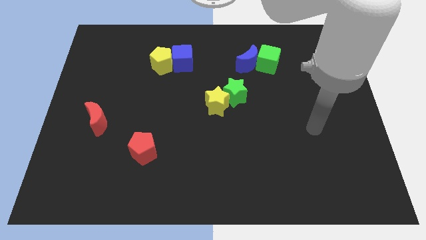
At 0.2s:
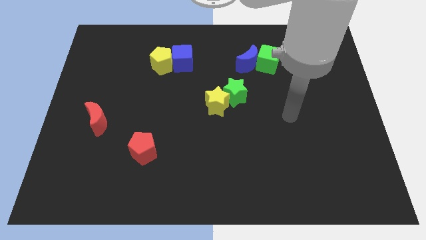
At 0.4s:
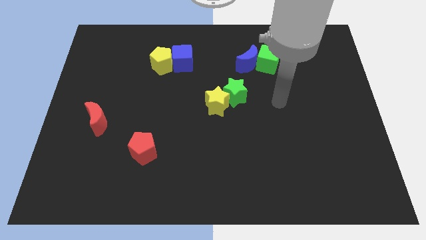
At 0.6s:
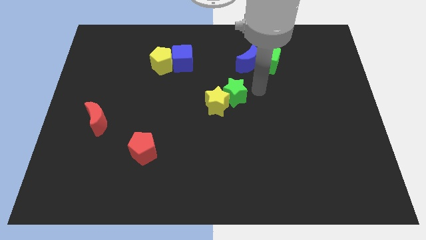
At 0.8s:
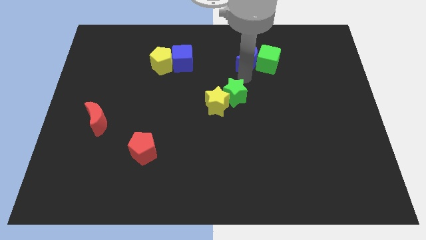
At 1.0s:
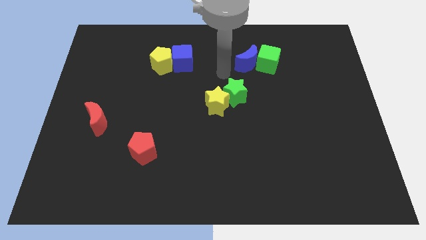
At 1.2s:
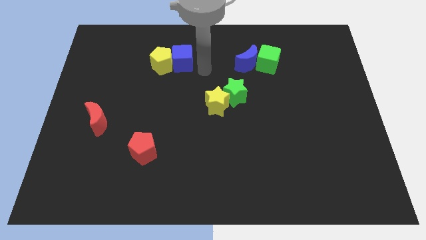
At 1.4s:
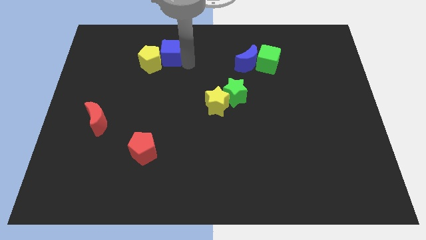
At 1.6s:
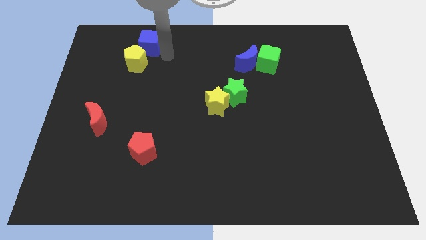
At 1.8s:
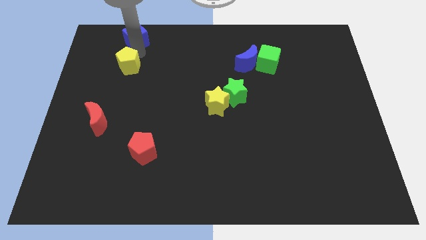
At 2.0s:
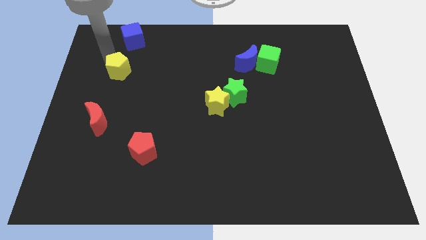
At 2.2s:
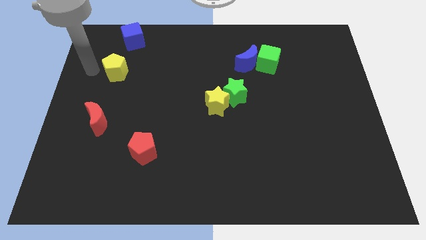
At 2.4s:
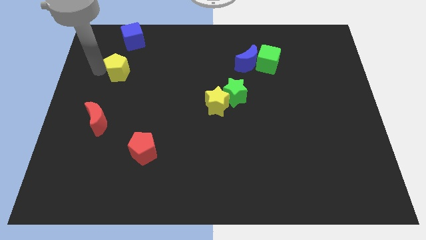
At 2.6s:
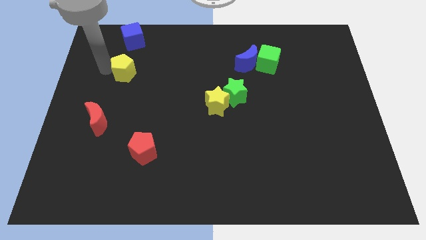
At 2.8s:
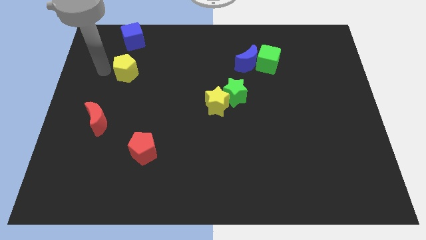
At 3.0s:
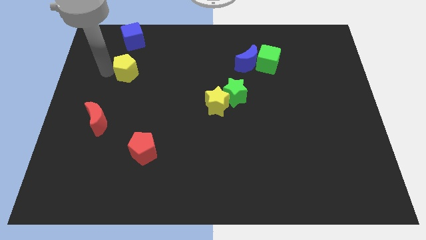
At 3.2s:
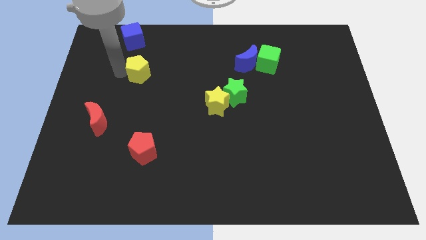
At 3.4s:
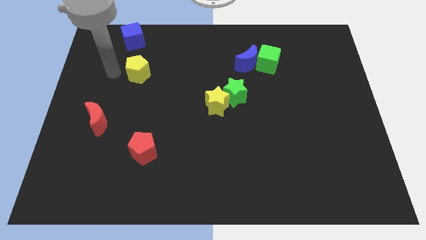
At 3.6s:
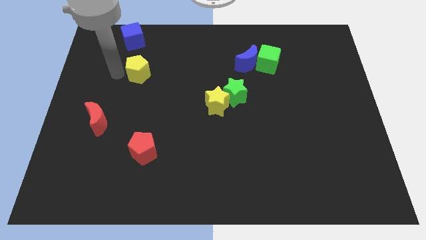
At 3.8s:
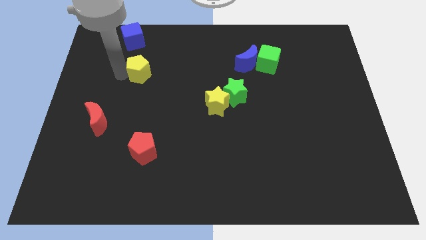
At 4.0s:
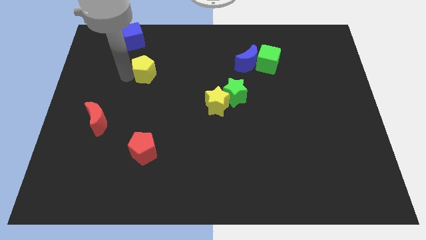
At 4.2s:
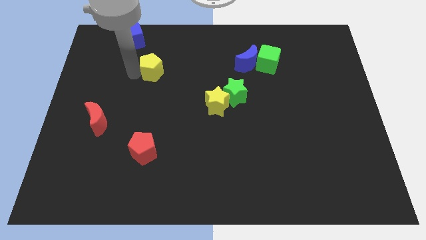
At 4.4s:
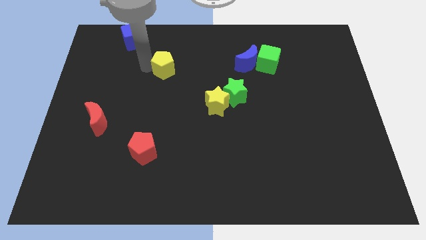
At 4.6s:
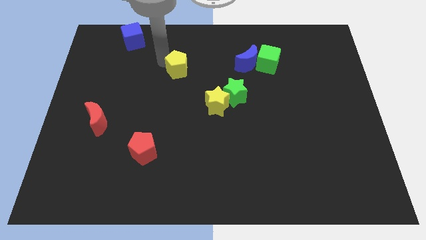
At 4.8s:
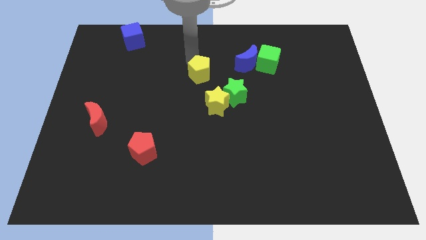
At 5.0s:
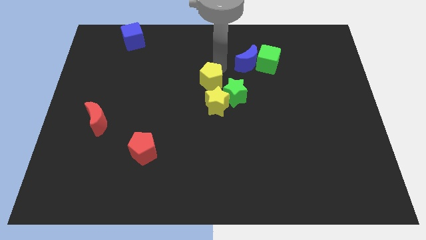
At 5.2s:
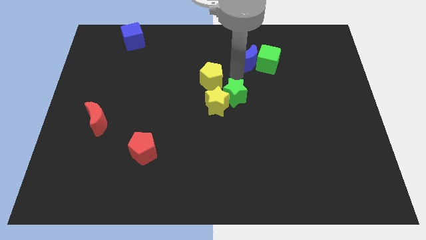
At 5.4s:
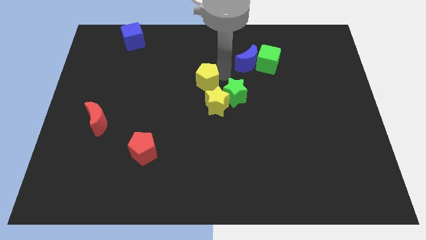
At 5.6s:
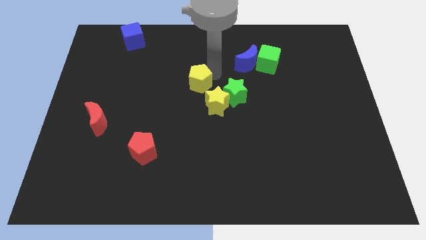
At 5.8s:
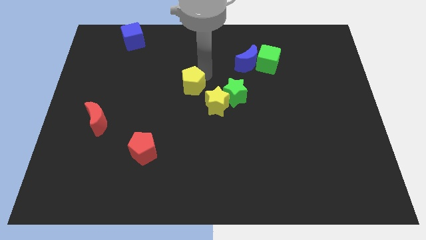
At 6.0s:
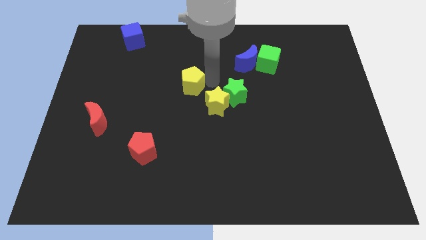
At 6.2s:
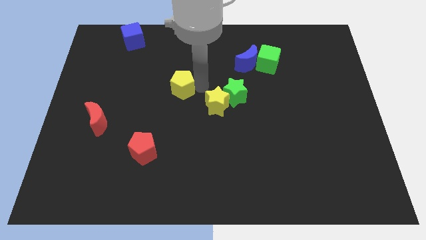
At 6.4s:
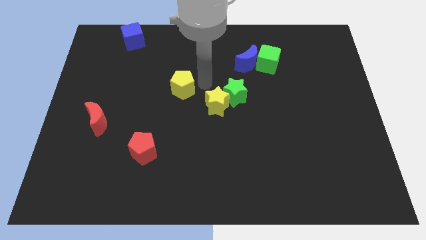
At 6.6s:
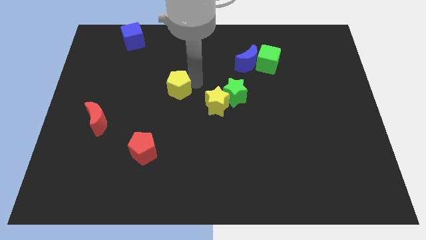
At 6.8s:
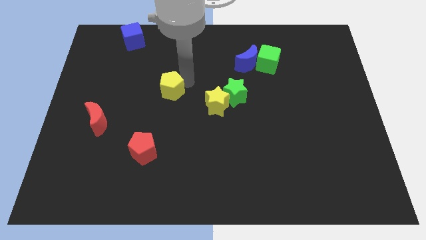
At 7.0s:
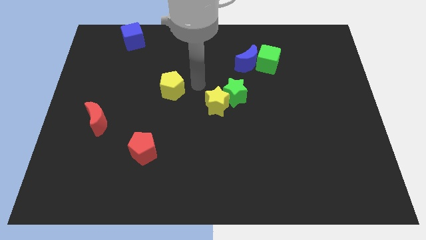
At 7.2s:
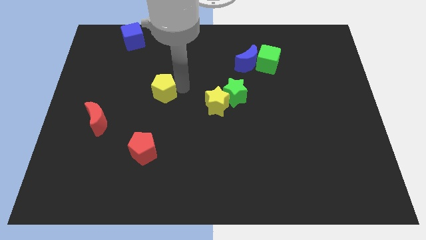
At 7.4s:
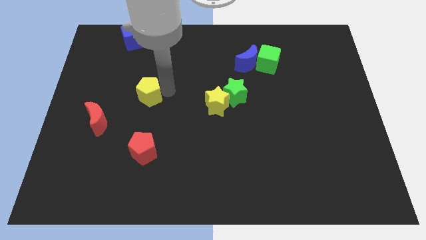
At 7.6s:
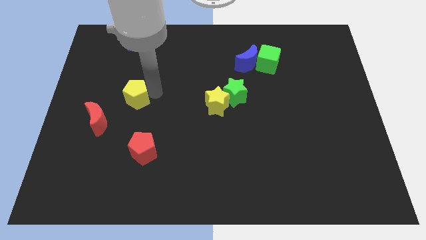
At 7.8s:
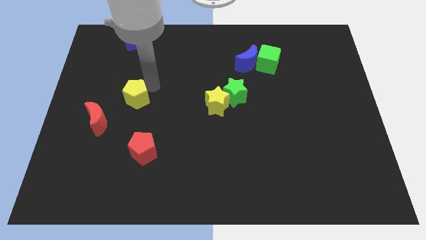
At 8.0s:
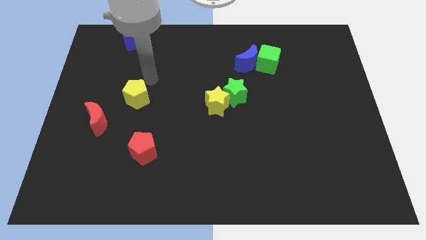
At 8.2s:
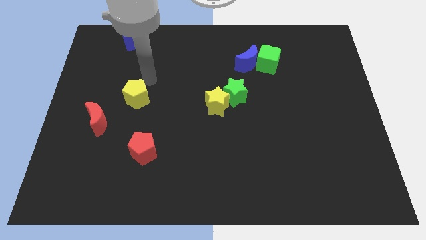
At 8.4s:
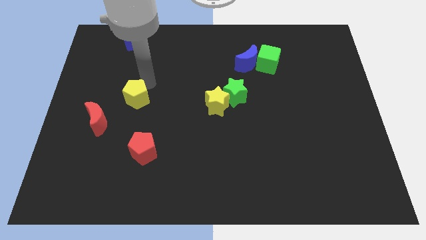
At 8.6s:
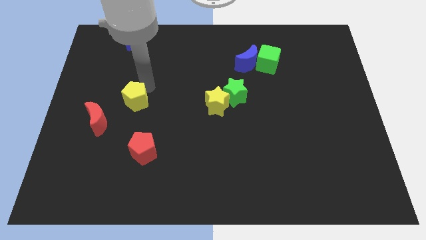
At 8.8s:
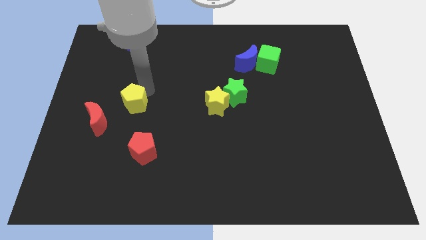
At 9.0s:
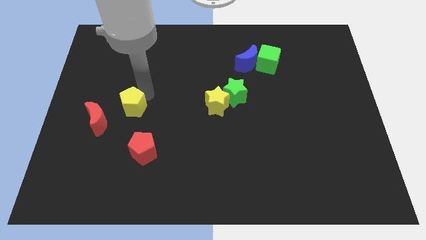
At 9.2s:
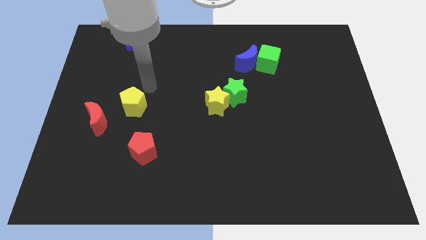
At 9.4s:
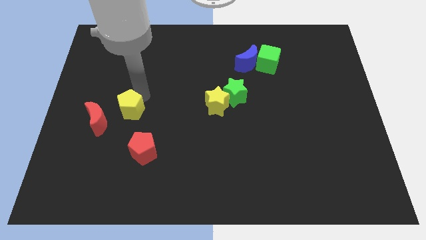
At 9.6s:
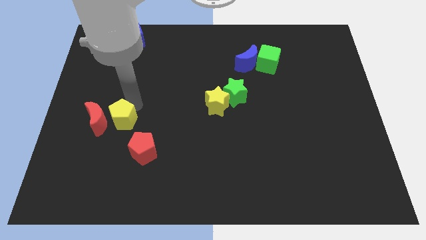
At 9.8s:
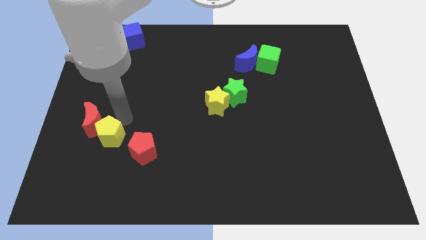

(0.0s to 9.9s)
push the yellow pentagon just left of the red pentagon

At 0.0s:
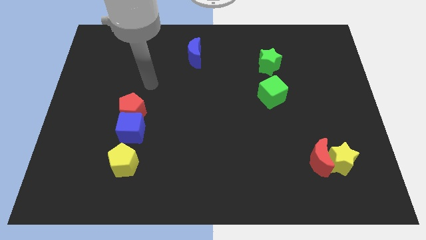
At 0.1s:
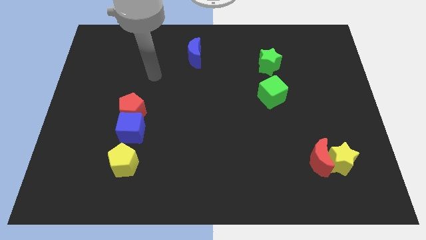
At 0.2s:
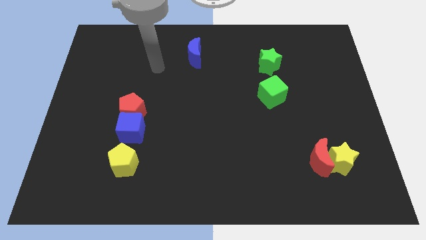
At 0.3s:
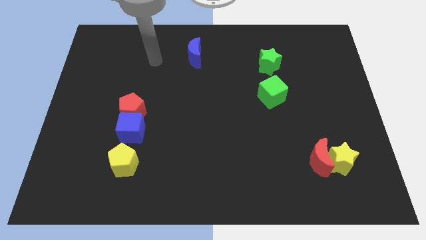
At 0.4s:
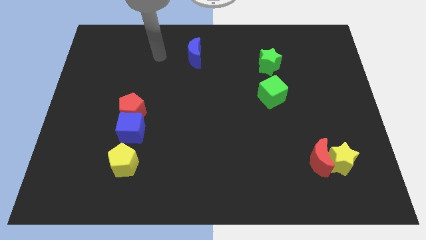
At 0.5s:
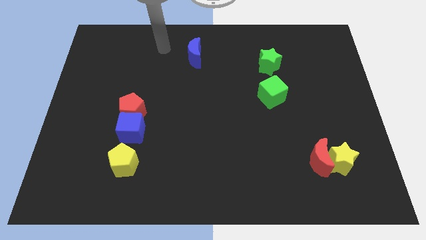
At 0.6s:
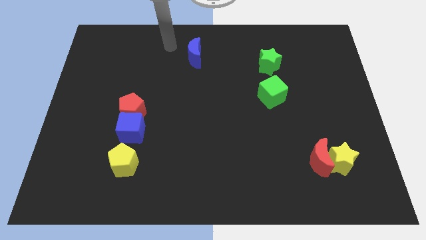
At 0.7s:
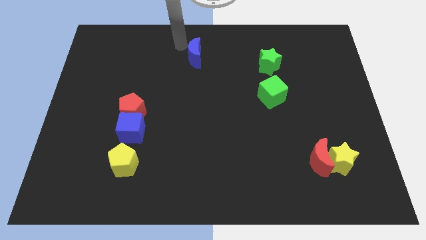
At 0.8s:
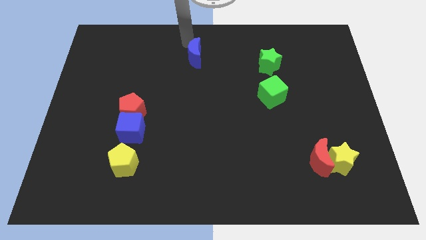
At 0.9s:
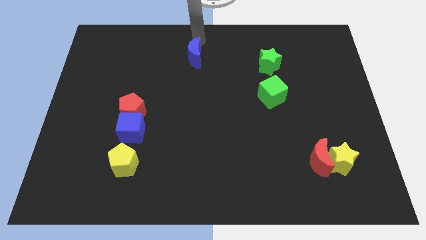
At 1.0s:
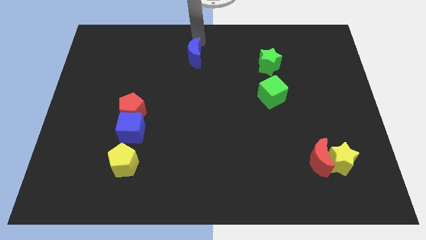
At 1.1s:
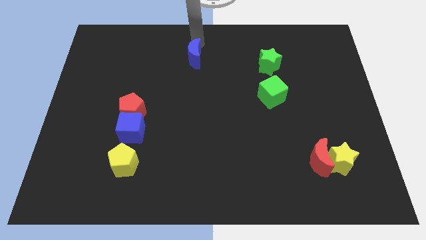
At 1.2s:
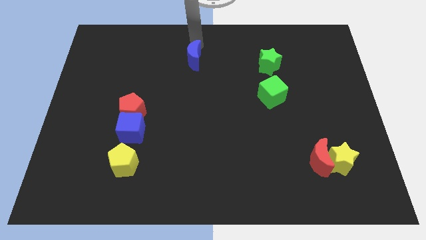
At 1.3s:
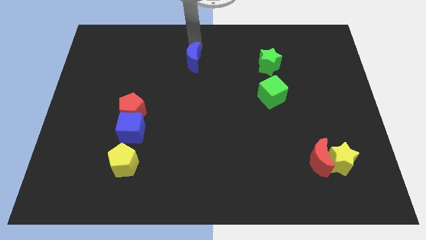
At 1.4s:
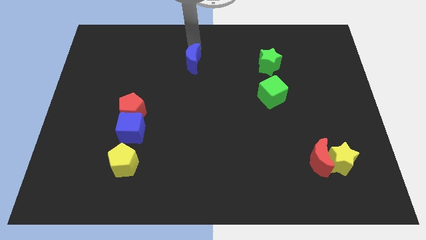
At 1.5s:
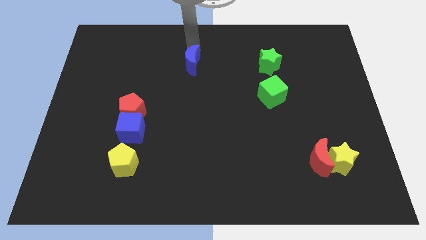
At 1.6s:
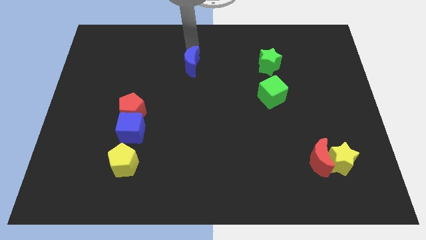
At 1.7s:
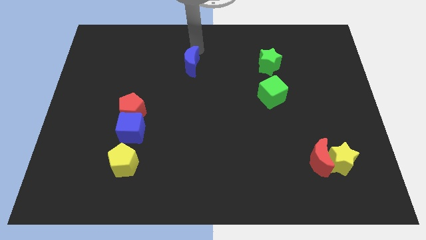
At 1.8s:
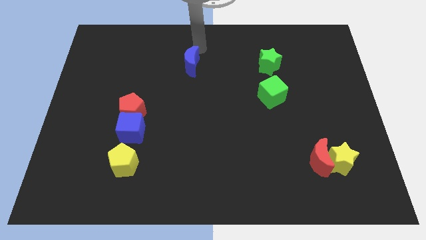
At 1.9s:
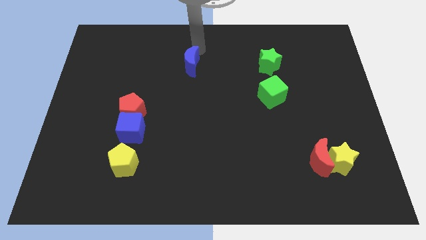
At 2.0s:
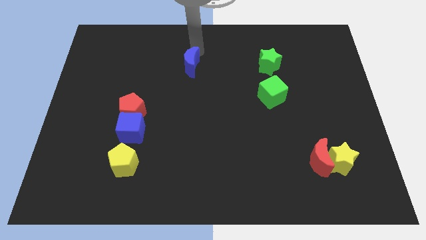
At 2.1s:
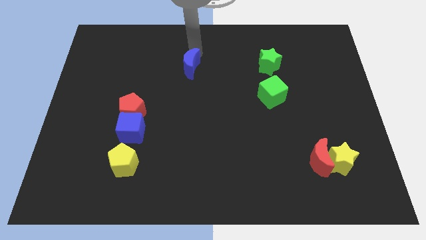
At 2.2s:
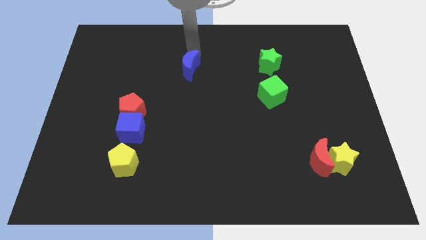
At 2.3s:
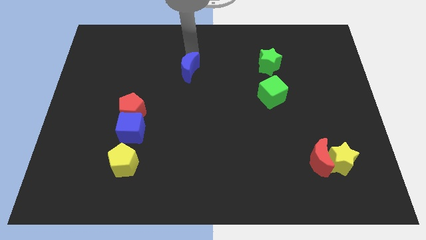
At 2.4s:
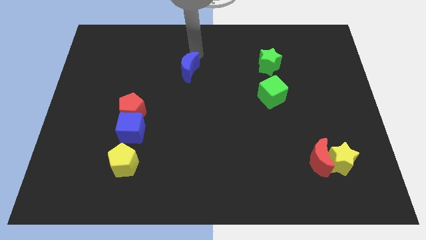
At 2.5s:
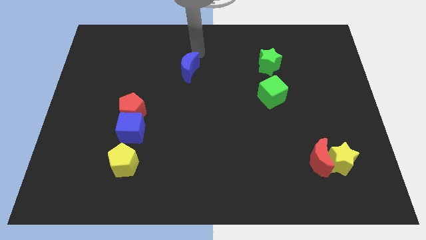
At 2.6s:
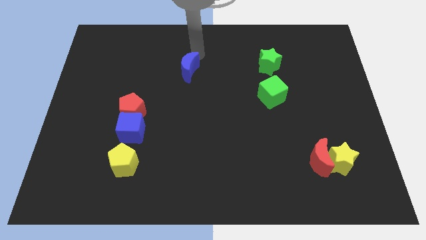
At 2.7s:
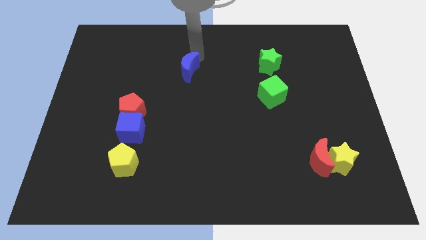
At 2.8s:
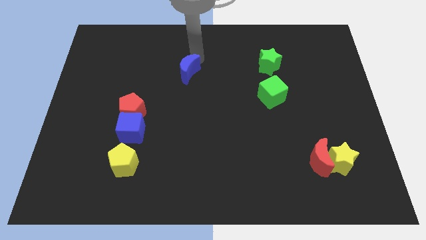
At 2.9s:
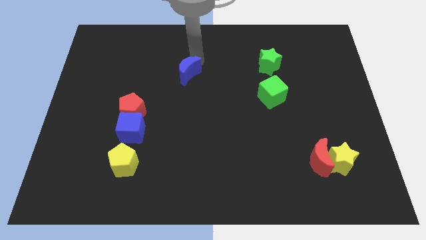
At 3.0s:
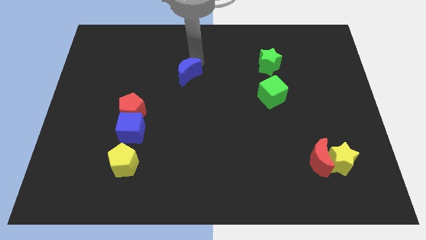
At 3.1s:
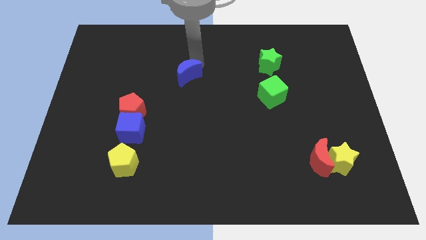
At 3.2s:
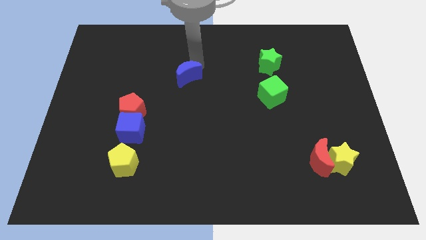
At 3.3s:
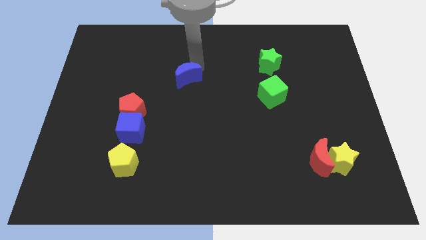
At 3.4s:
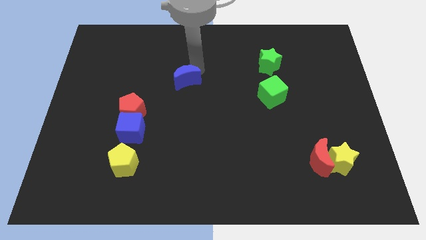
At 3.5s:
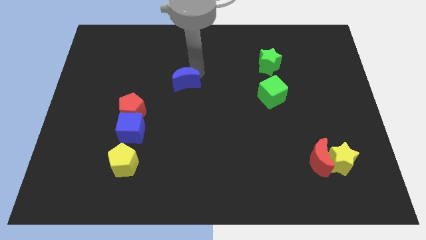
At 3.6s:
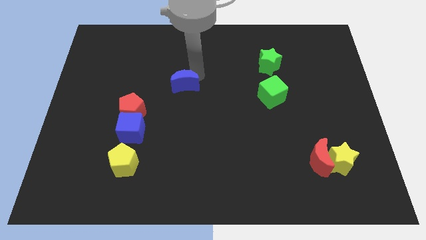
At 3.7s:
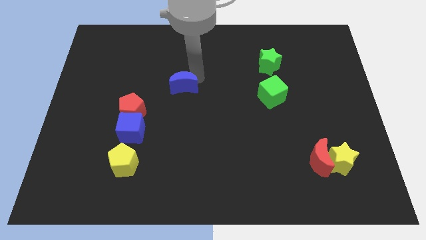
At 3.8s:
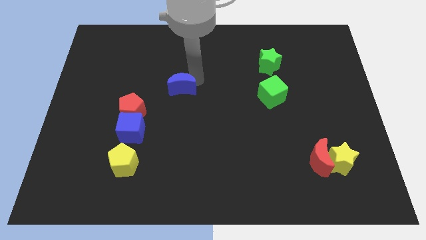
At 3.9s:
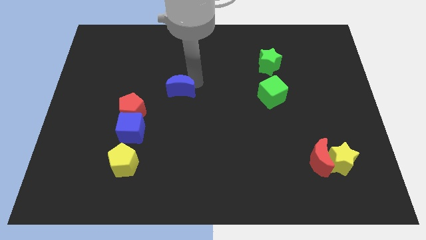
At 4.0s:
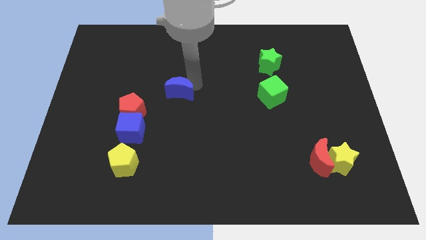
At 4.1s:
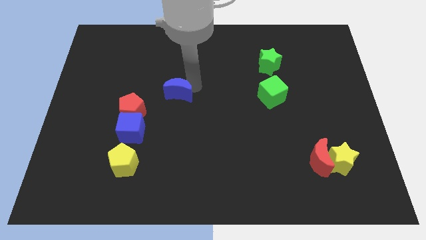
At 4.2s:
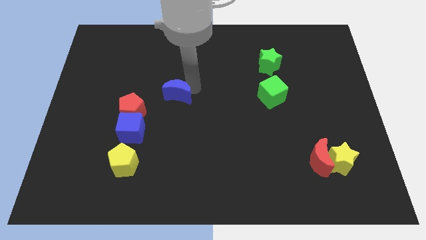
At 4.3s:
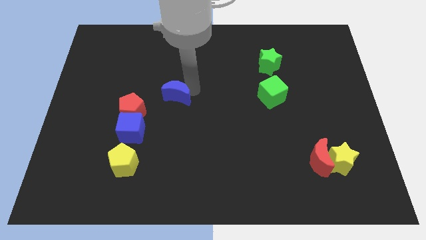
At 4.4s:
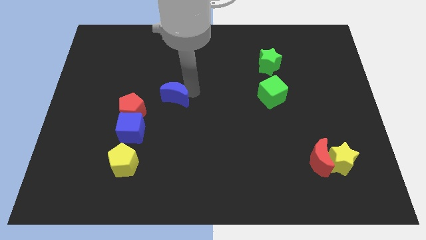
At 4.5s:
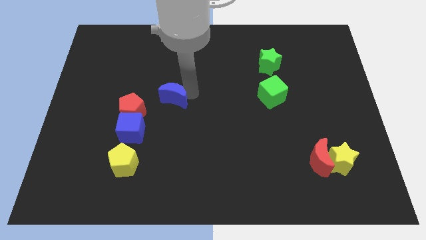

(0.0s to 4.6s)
slide the blue moon diagonally up and to the right of the blue cube
